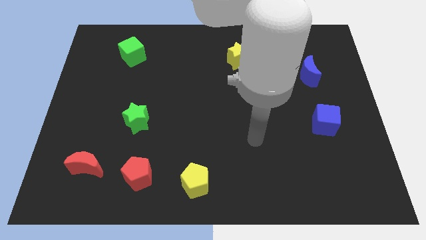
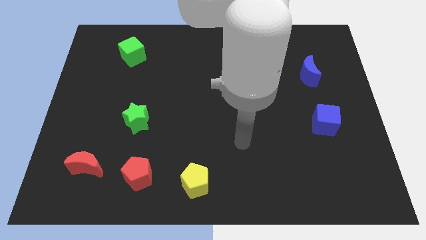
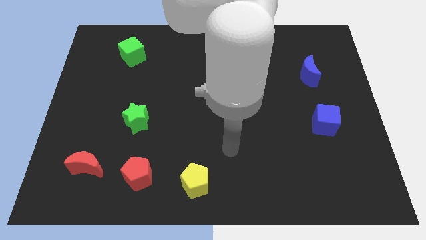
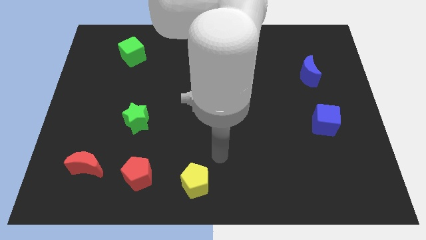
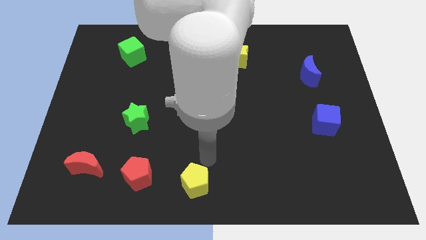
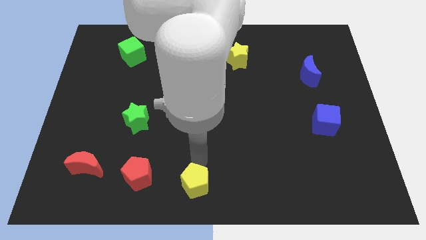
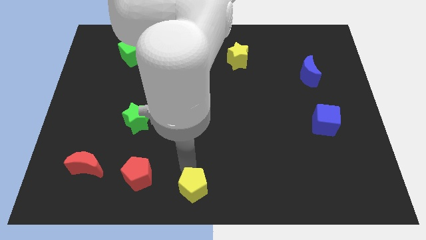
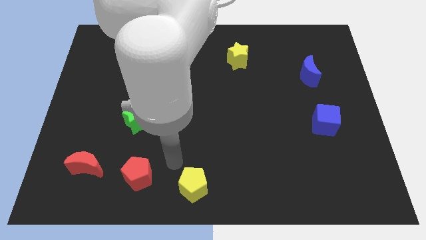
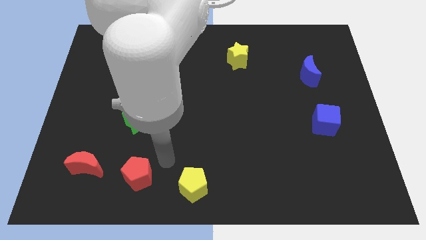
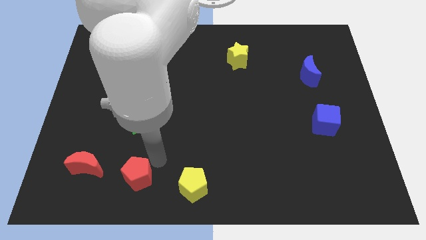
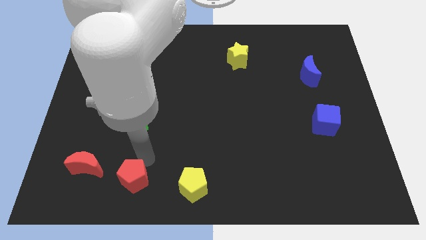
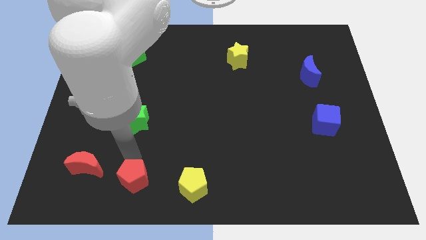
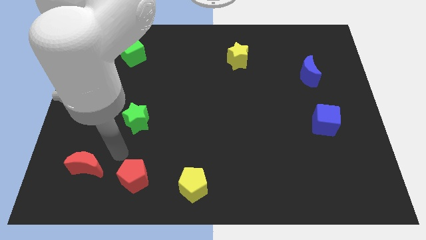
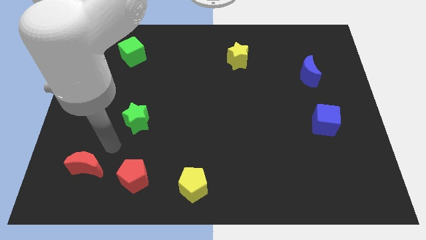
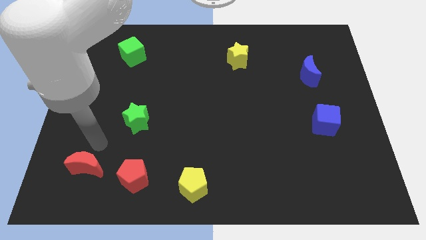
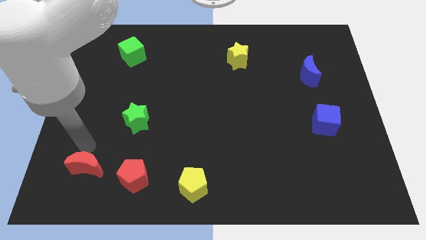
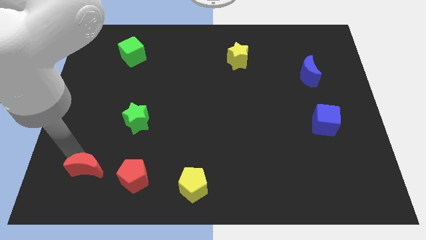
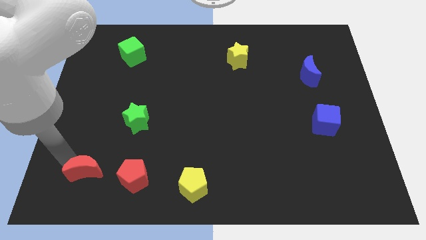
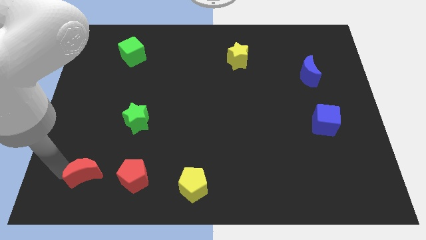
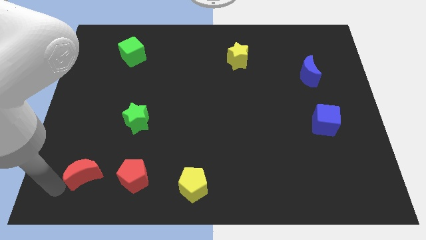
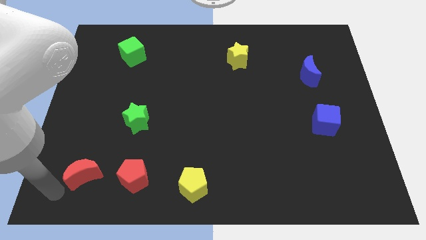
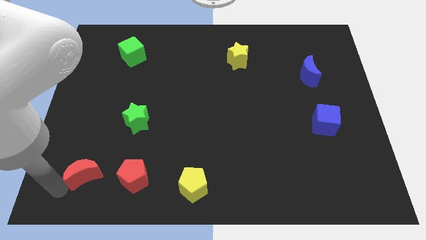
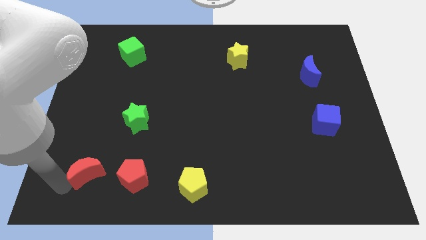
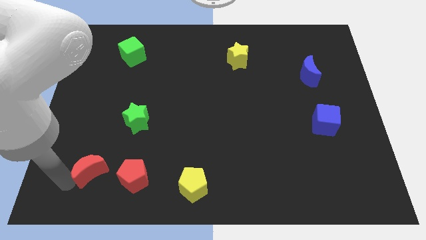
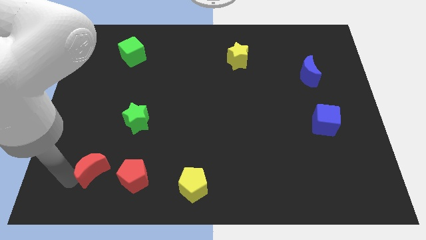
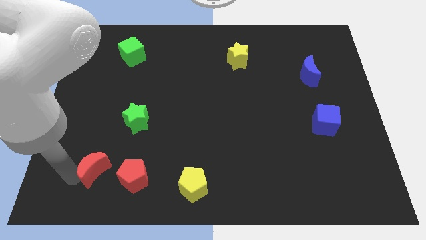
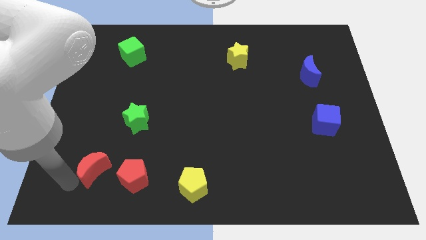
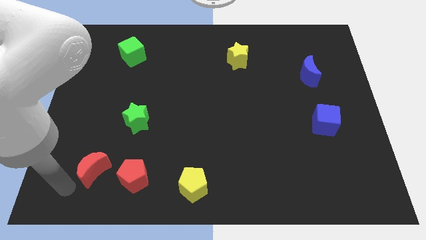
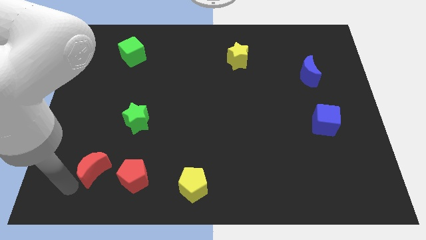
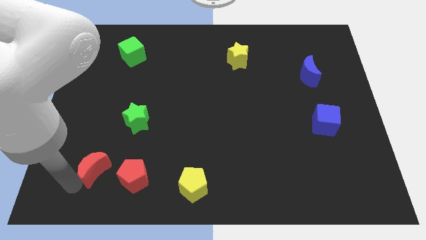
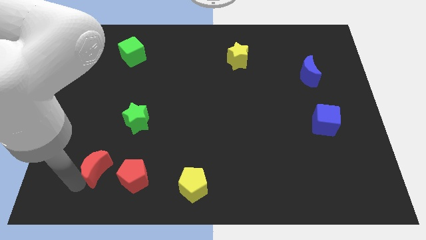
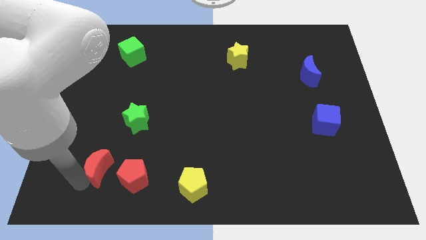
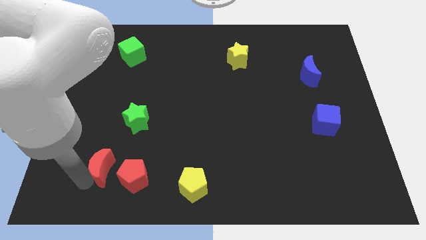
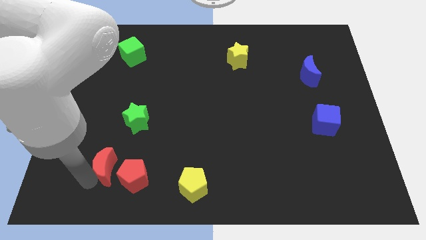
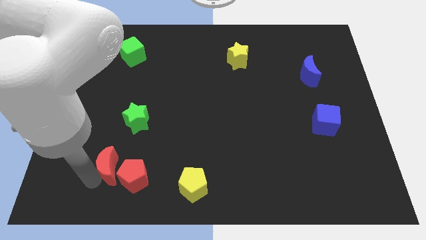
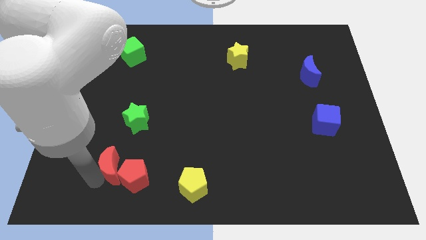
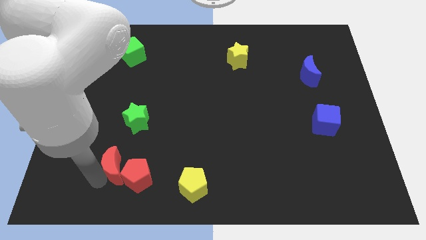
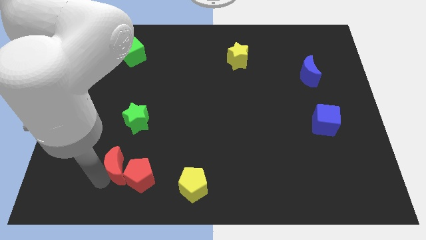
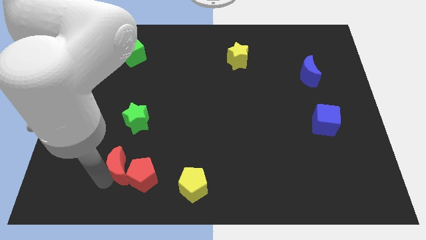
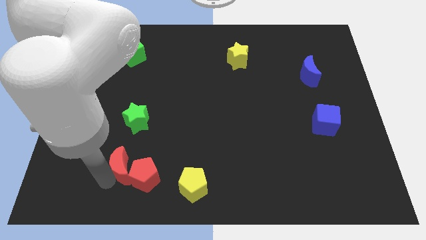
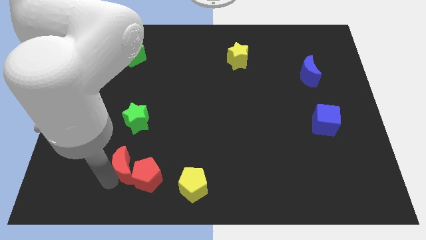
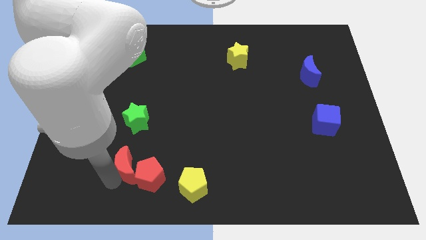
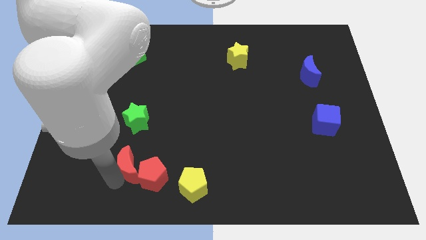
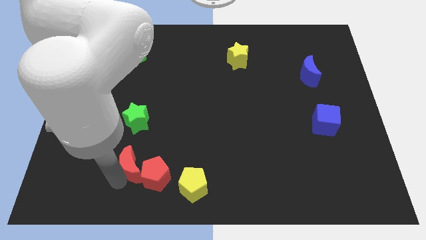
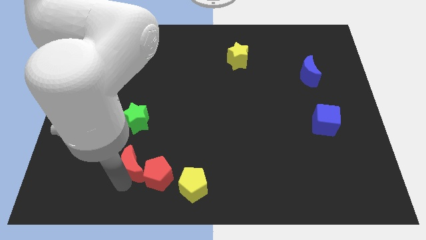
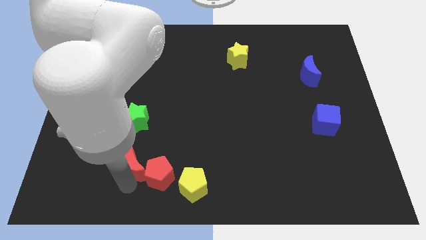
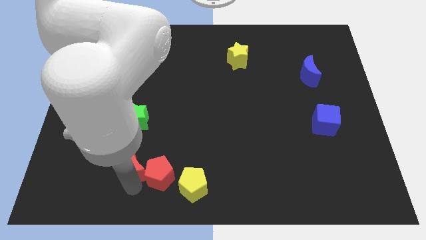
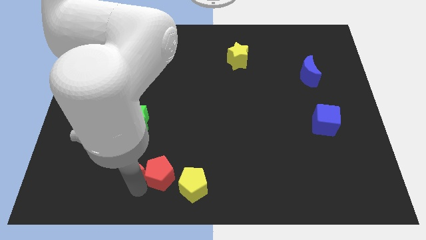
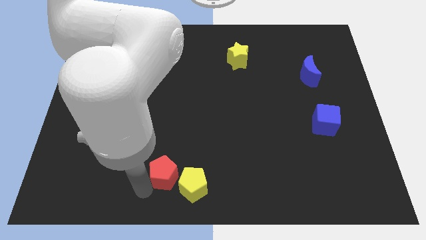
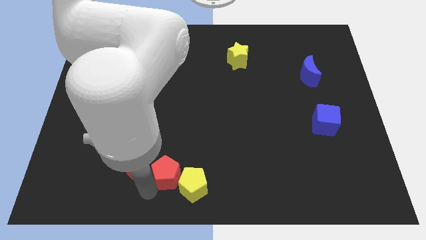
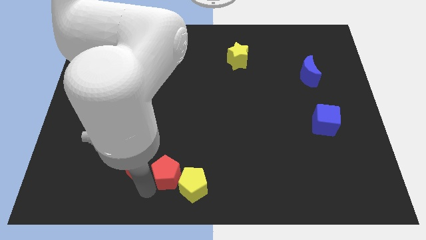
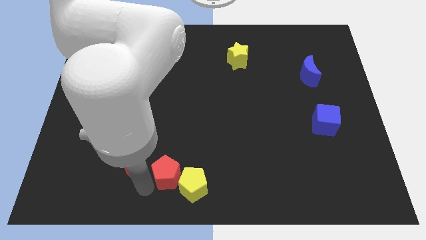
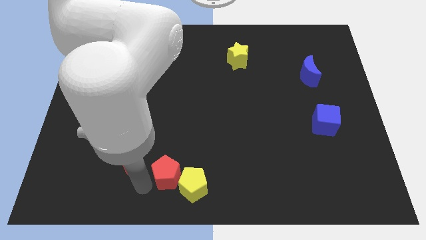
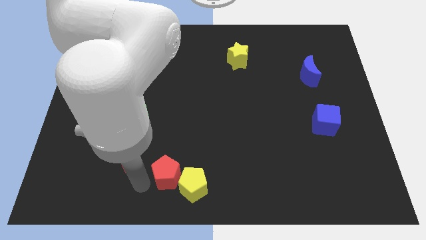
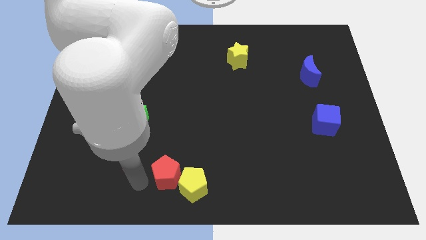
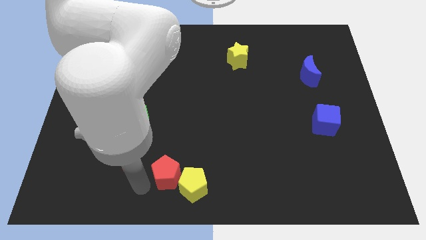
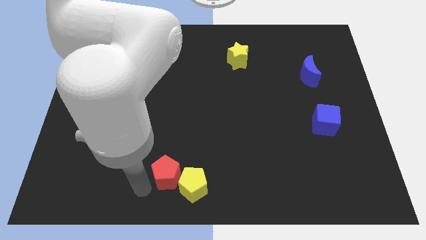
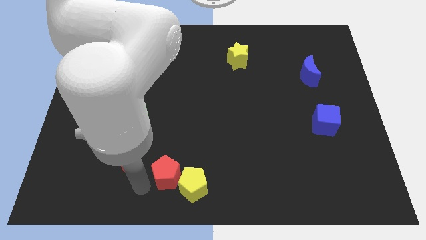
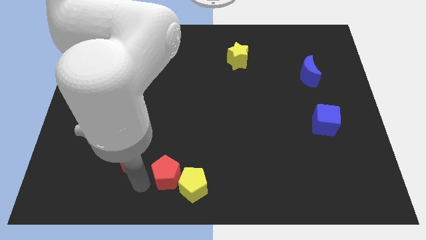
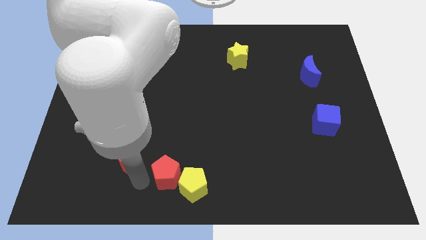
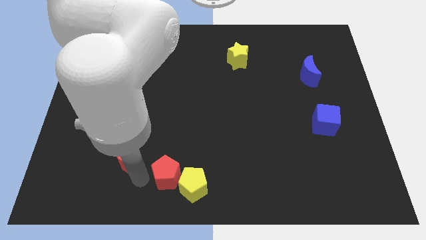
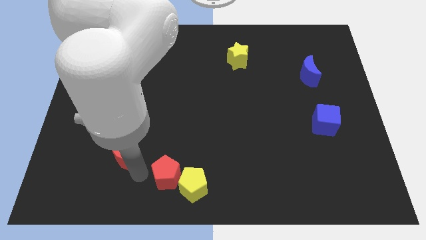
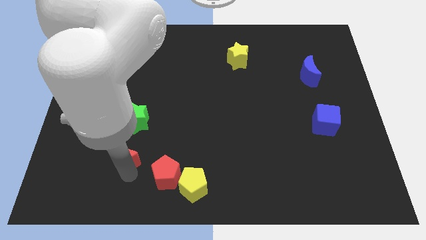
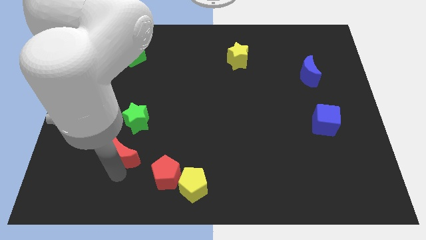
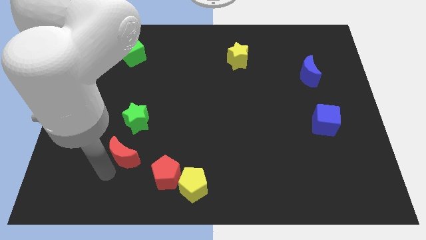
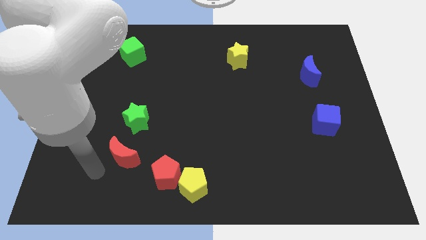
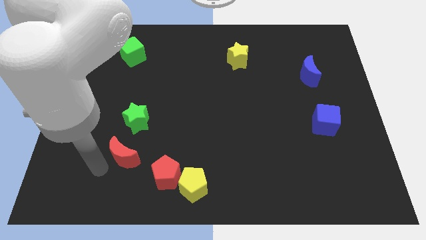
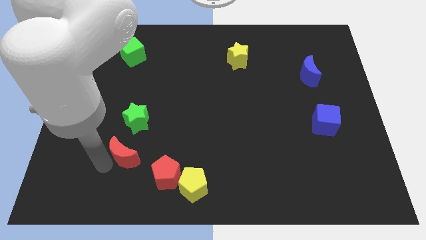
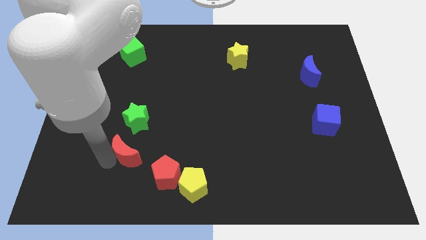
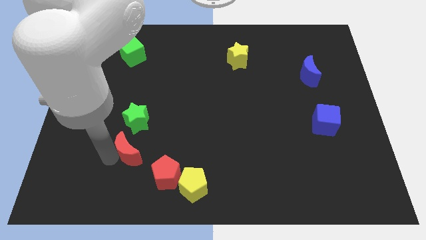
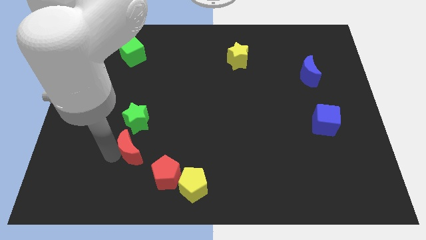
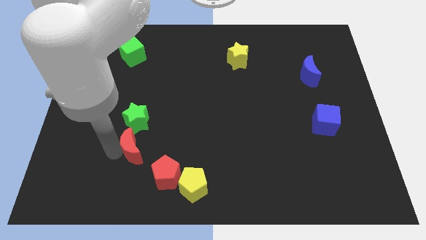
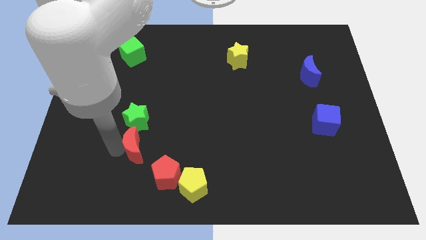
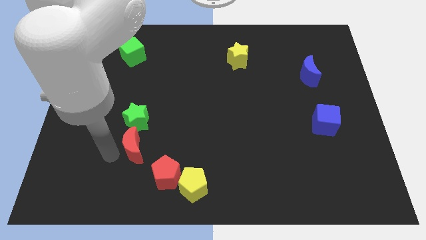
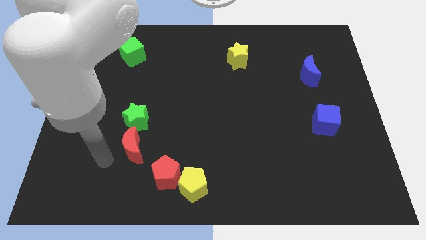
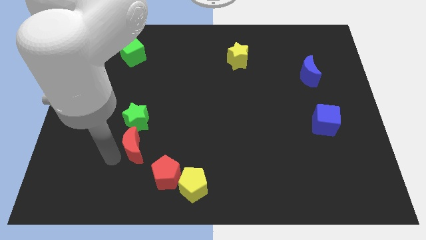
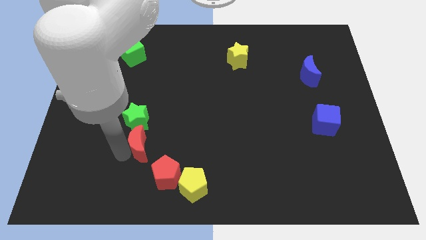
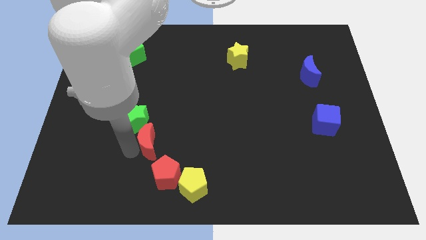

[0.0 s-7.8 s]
move the red moon to the top side of the red pentagon
